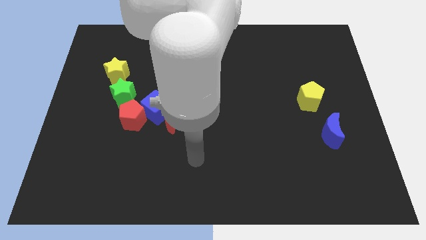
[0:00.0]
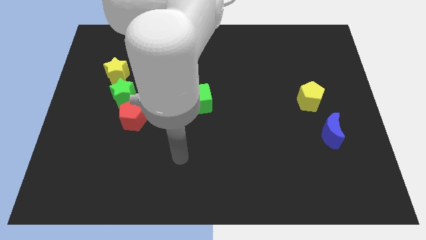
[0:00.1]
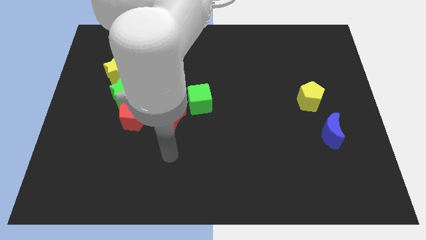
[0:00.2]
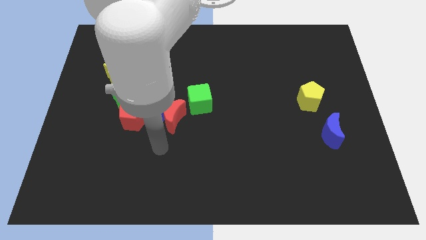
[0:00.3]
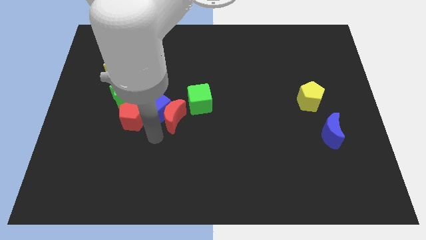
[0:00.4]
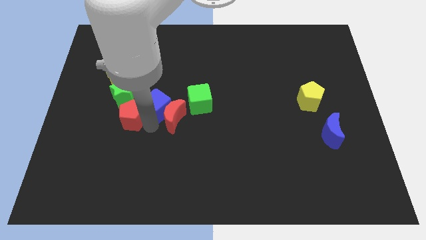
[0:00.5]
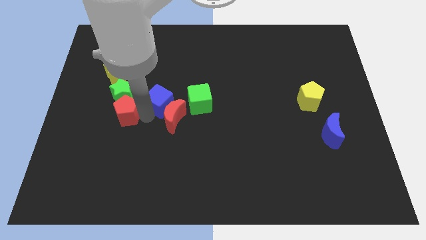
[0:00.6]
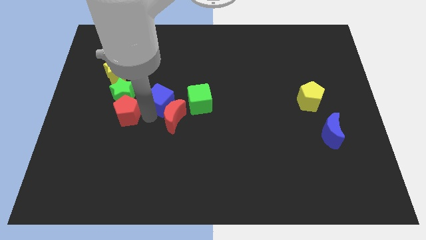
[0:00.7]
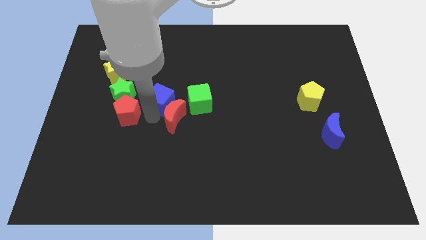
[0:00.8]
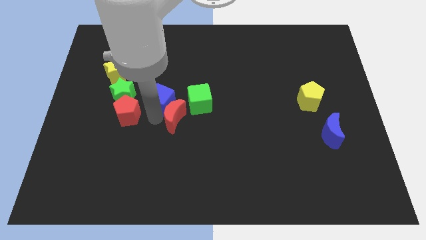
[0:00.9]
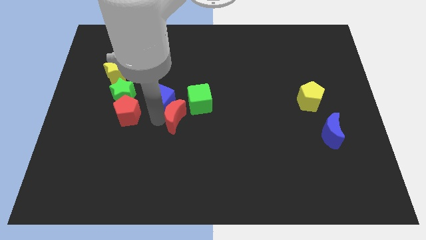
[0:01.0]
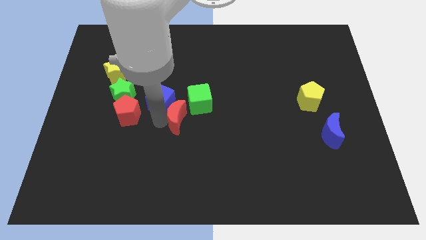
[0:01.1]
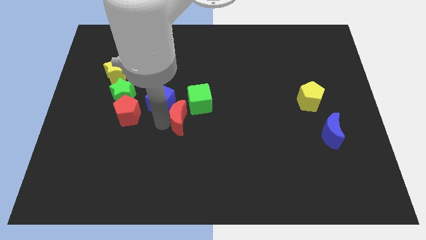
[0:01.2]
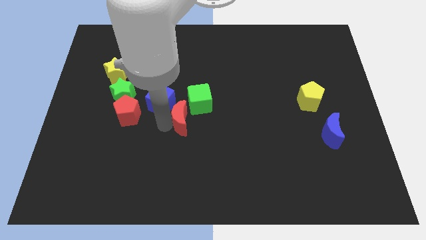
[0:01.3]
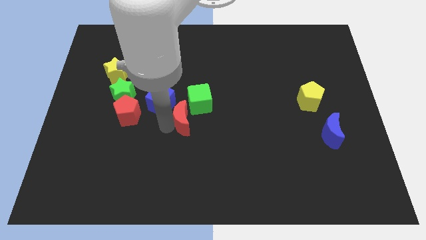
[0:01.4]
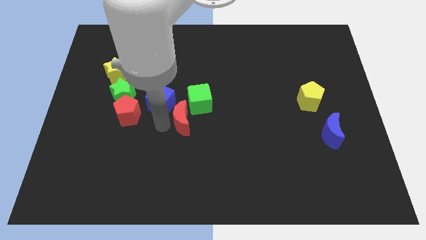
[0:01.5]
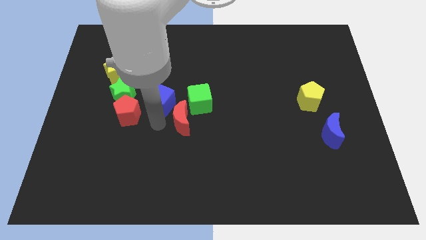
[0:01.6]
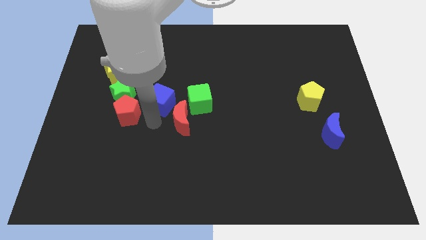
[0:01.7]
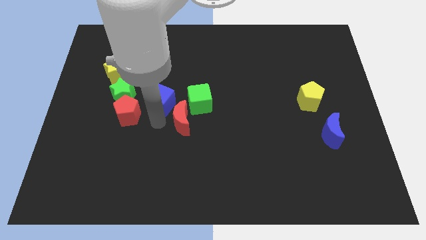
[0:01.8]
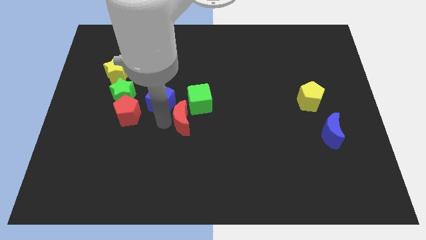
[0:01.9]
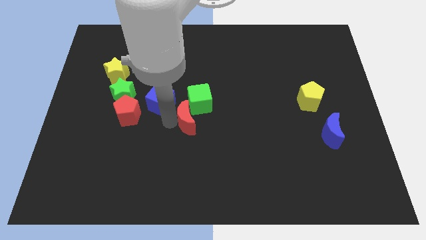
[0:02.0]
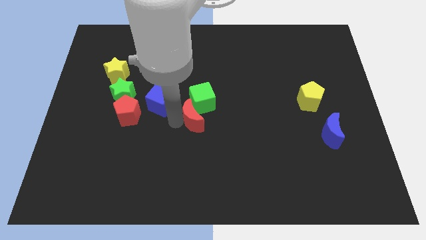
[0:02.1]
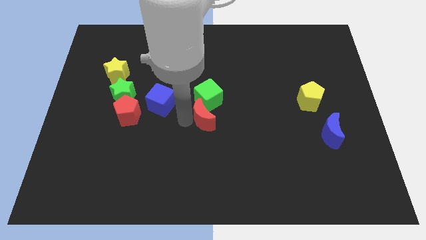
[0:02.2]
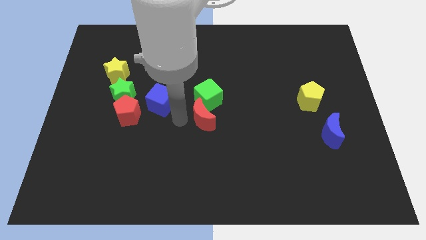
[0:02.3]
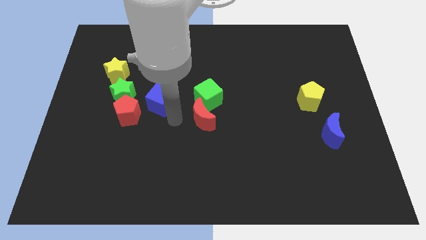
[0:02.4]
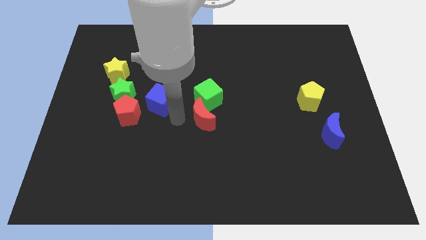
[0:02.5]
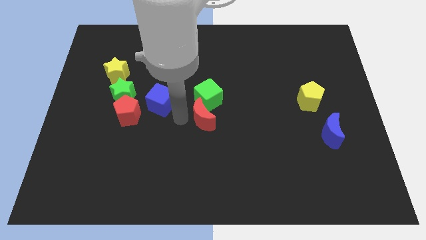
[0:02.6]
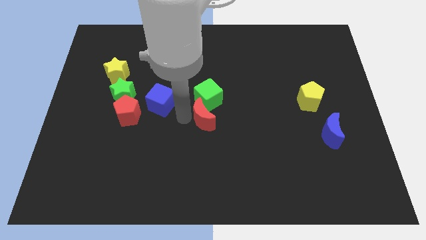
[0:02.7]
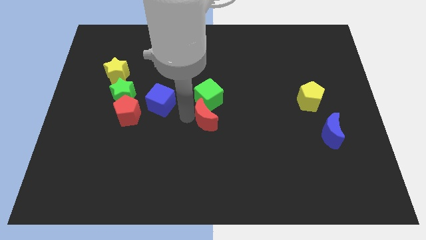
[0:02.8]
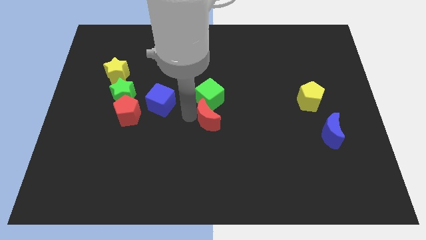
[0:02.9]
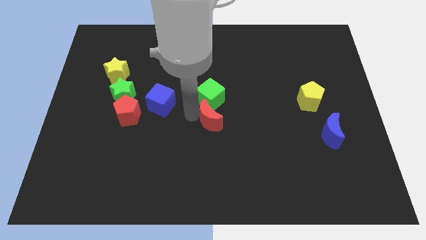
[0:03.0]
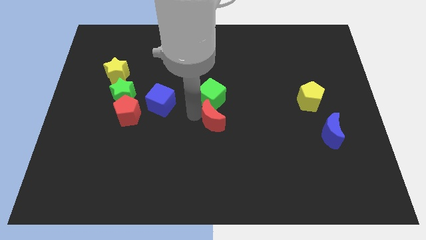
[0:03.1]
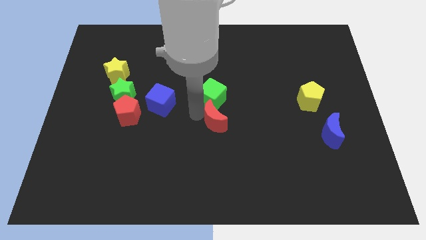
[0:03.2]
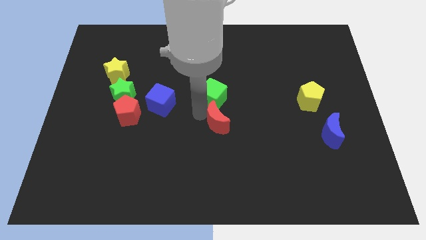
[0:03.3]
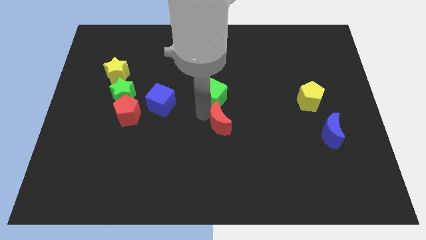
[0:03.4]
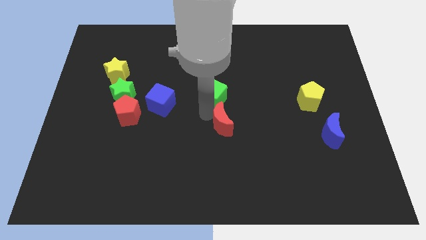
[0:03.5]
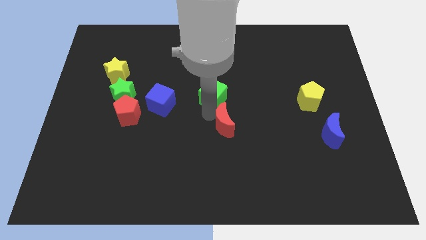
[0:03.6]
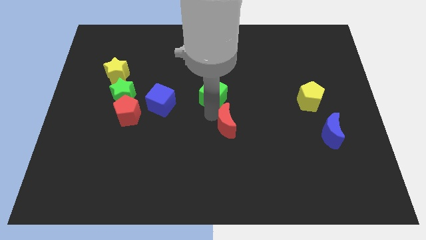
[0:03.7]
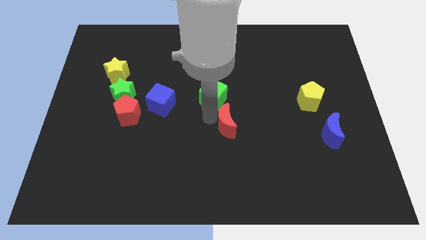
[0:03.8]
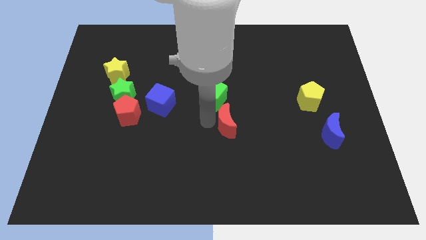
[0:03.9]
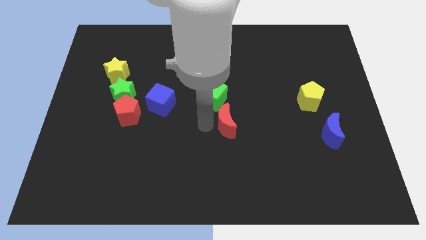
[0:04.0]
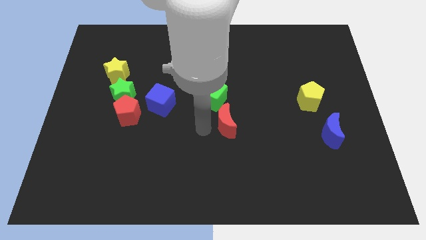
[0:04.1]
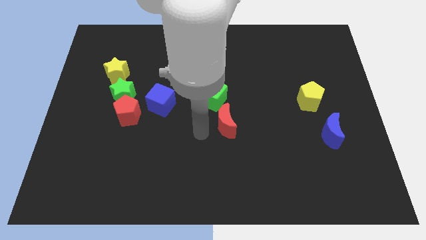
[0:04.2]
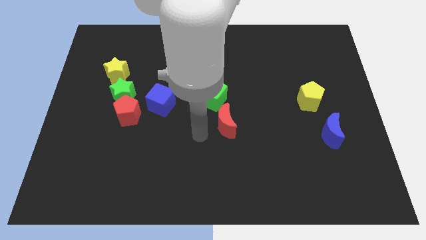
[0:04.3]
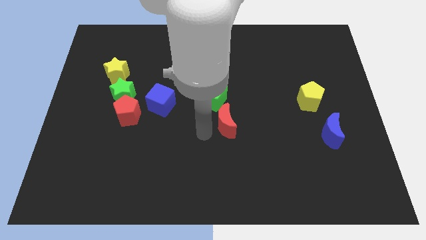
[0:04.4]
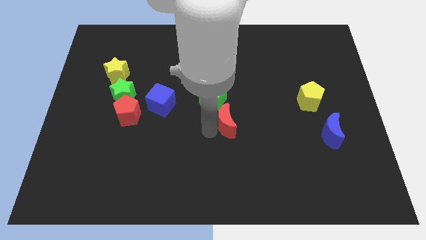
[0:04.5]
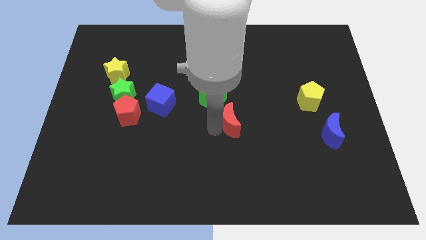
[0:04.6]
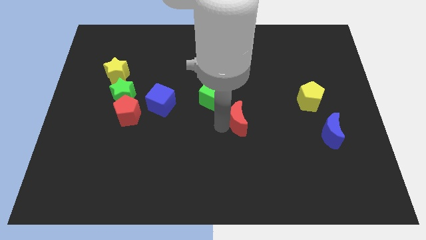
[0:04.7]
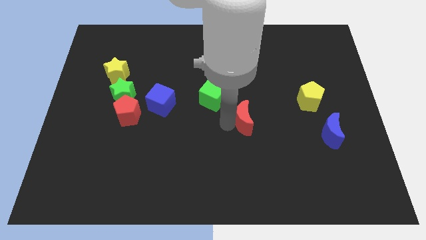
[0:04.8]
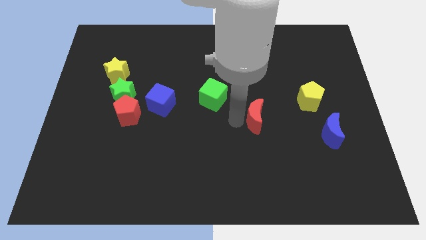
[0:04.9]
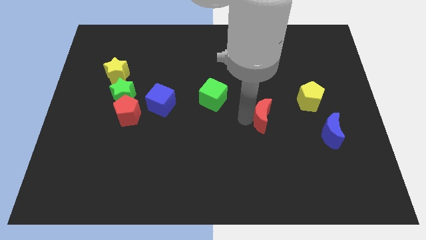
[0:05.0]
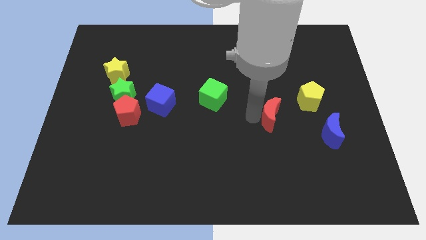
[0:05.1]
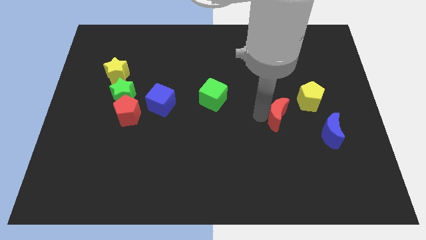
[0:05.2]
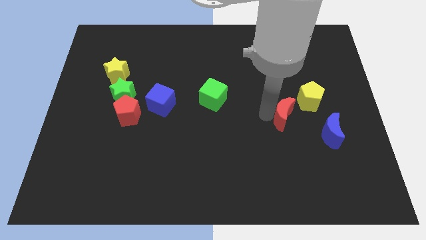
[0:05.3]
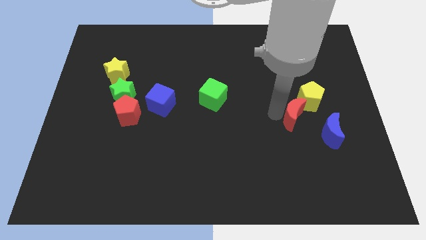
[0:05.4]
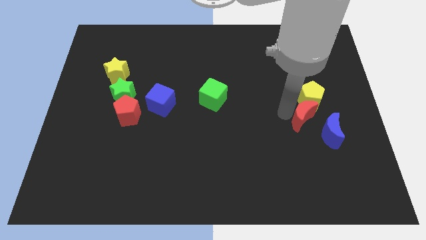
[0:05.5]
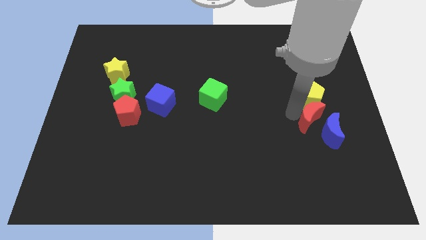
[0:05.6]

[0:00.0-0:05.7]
put the red moon close to the blue moon

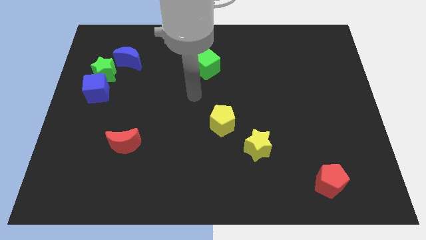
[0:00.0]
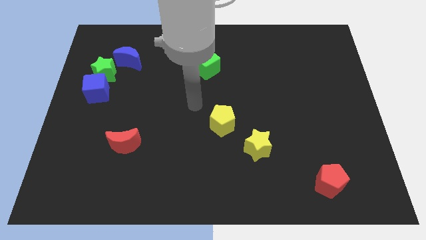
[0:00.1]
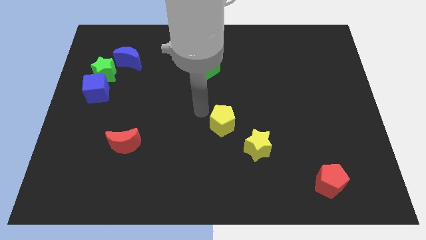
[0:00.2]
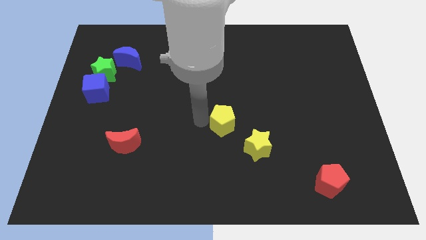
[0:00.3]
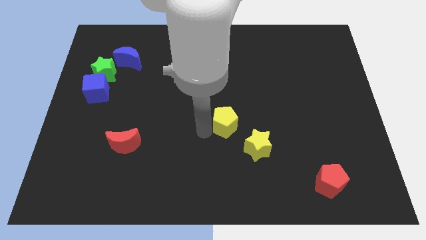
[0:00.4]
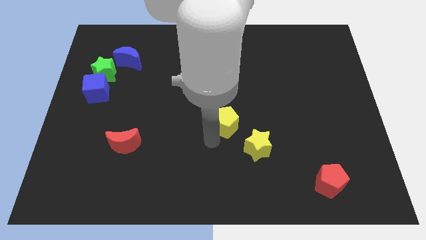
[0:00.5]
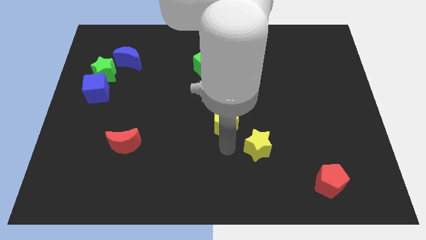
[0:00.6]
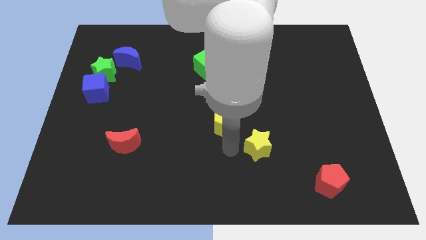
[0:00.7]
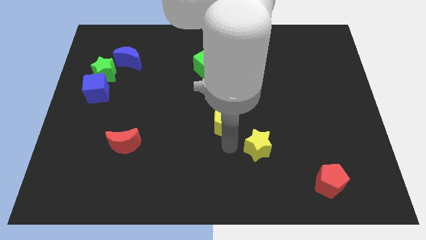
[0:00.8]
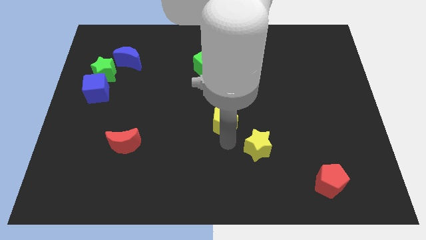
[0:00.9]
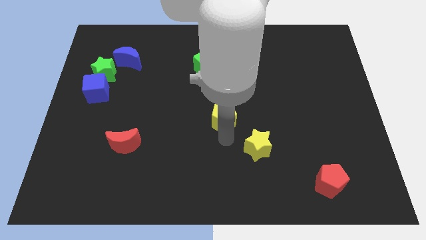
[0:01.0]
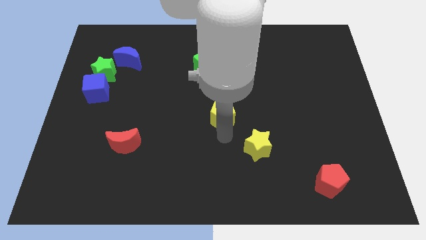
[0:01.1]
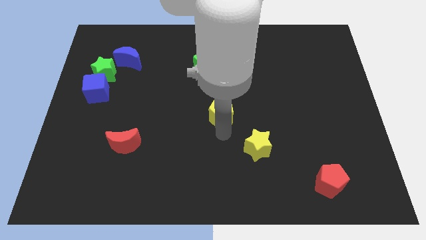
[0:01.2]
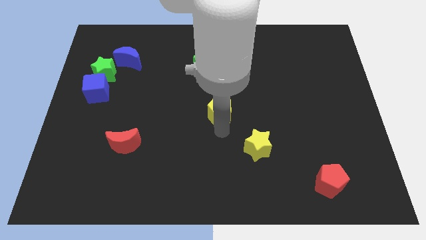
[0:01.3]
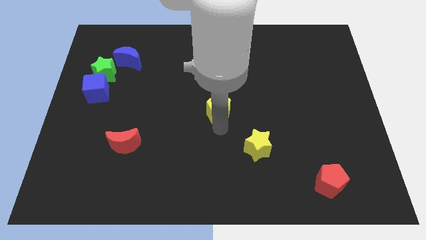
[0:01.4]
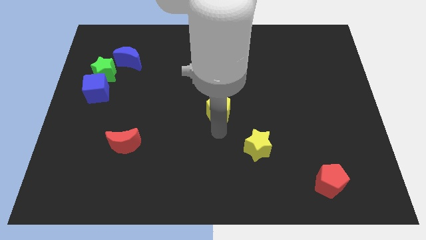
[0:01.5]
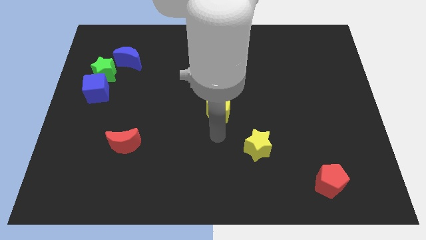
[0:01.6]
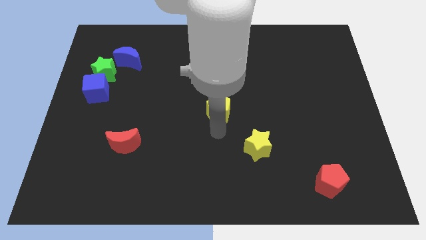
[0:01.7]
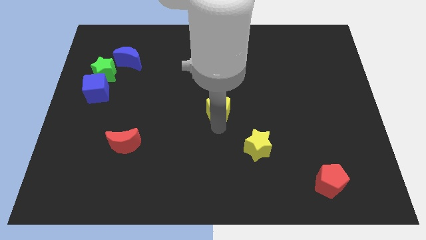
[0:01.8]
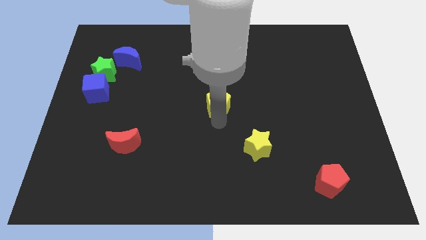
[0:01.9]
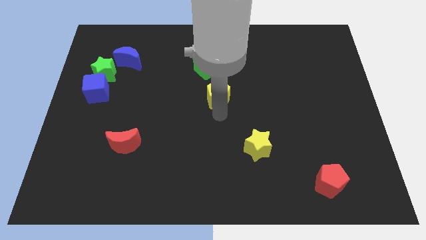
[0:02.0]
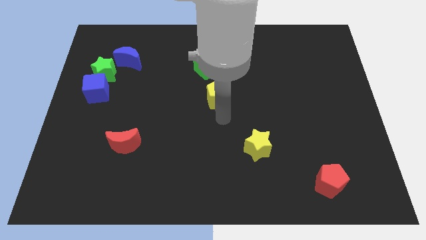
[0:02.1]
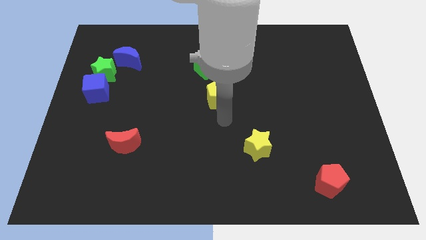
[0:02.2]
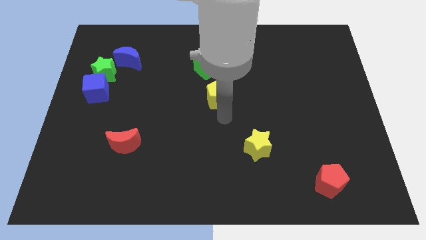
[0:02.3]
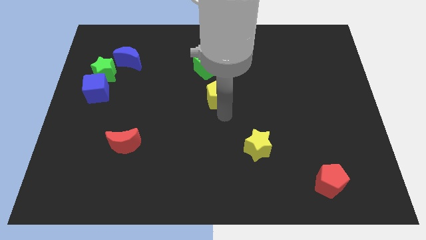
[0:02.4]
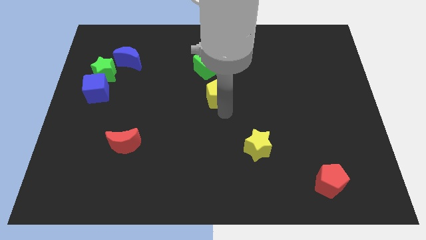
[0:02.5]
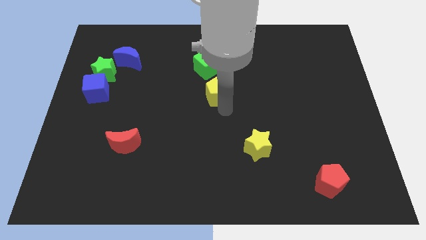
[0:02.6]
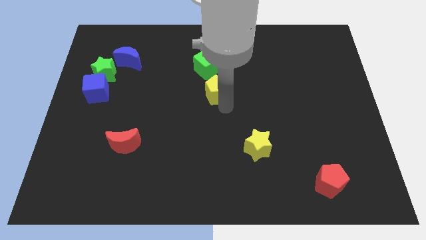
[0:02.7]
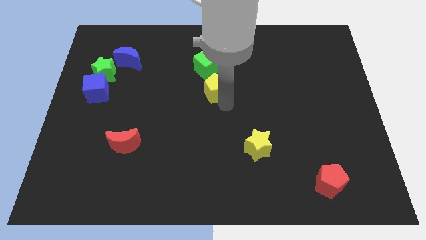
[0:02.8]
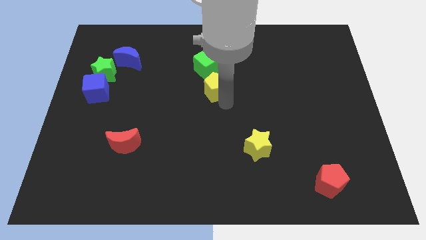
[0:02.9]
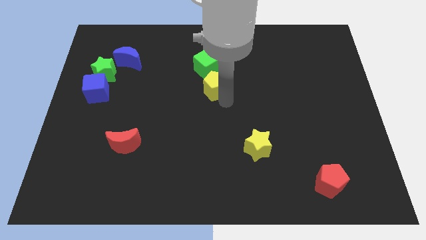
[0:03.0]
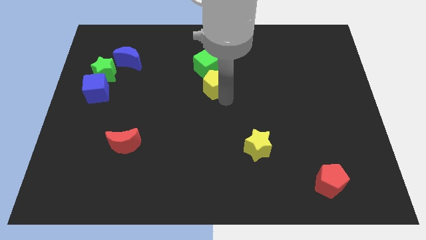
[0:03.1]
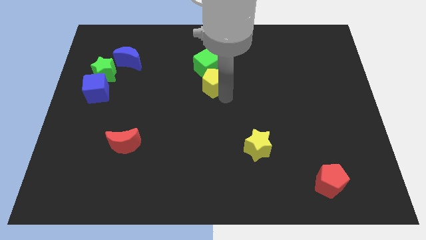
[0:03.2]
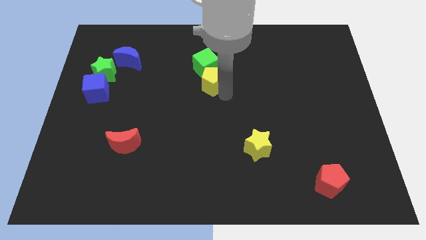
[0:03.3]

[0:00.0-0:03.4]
put the yellow pentagon close to the green cube
